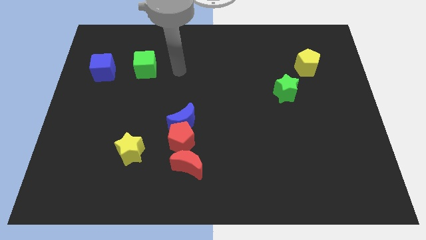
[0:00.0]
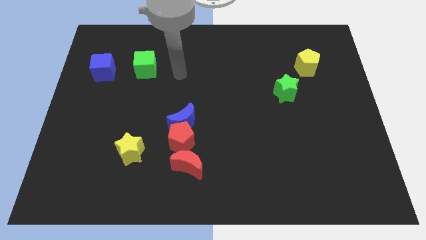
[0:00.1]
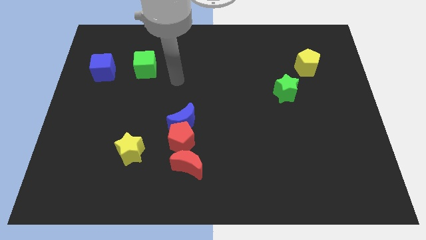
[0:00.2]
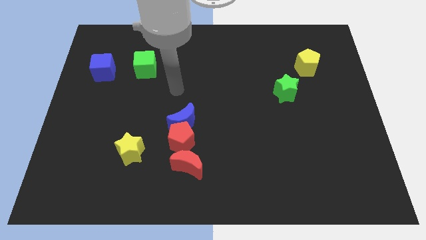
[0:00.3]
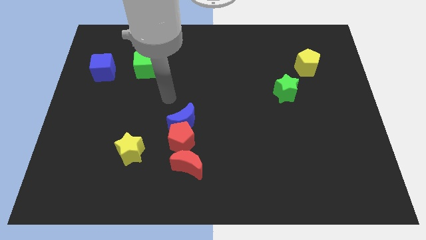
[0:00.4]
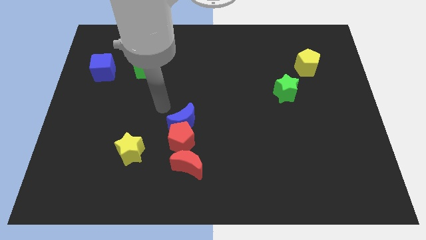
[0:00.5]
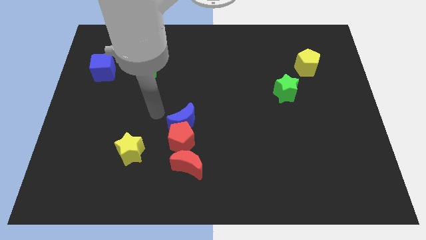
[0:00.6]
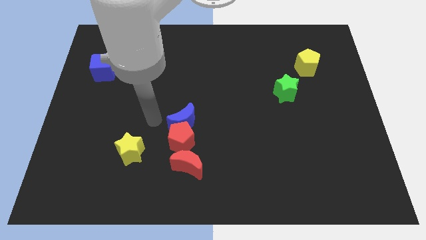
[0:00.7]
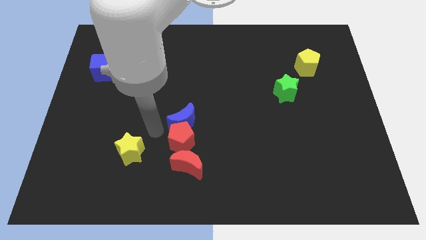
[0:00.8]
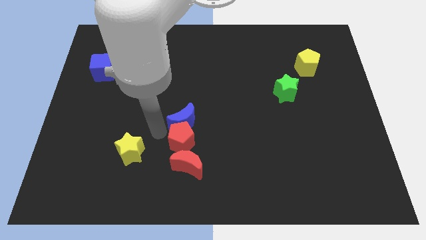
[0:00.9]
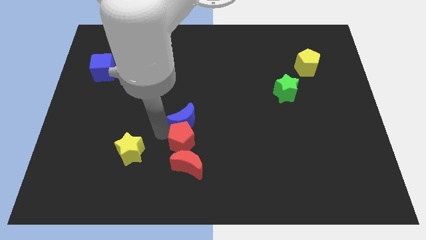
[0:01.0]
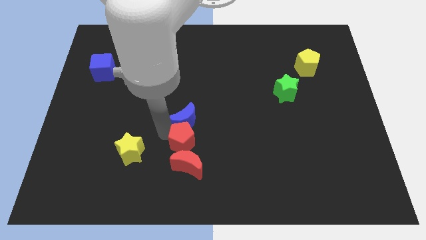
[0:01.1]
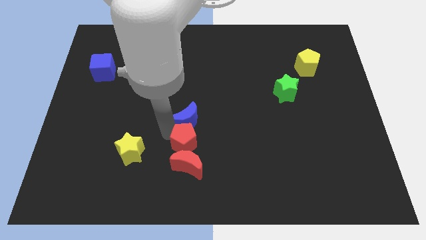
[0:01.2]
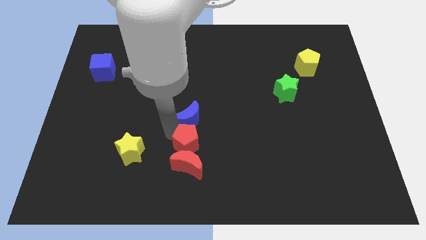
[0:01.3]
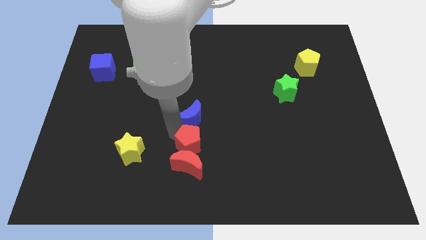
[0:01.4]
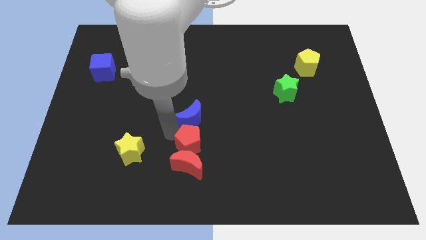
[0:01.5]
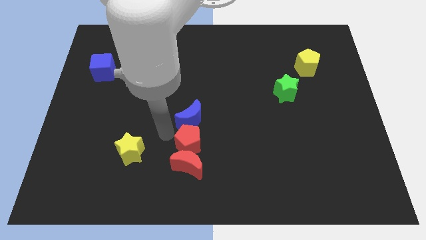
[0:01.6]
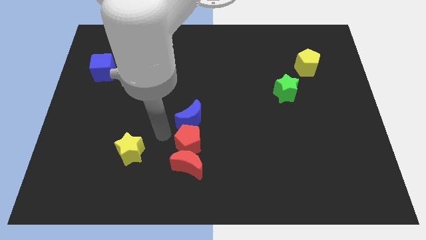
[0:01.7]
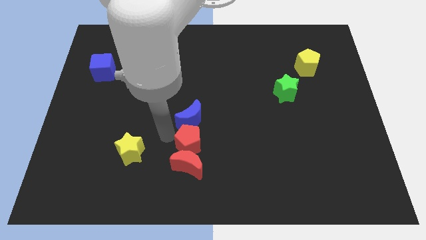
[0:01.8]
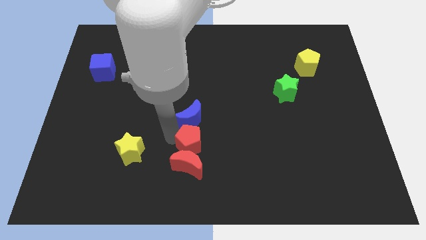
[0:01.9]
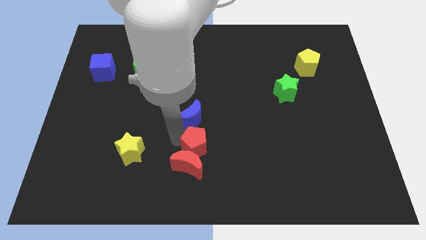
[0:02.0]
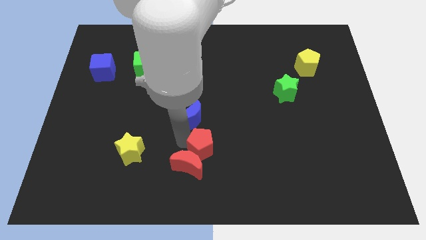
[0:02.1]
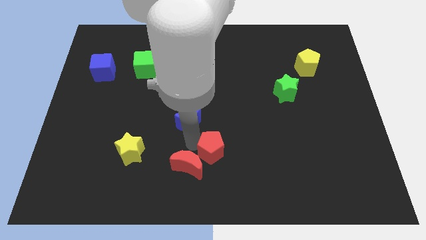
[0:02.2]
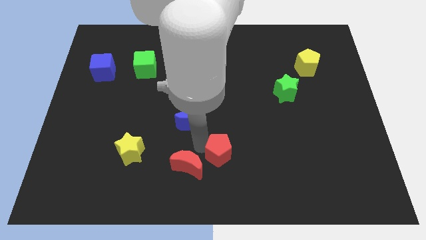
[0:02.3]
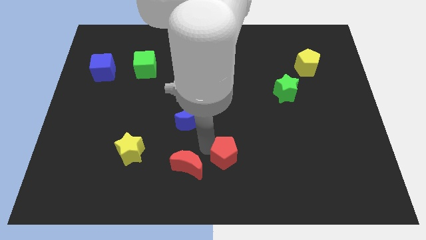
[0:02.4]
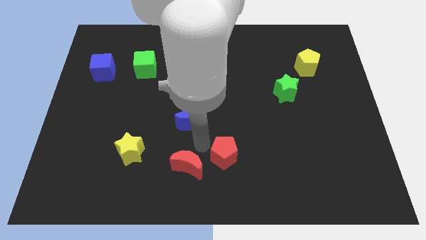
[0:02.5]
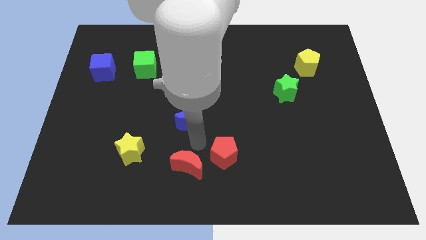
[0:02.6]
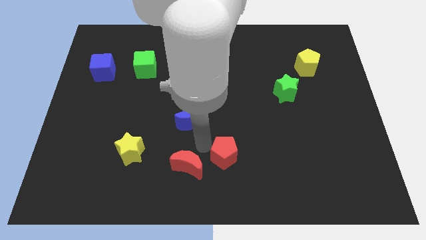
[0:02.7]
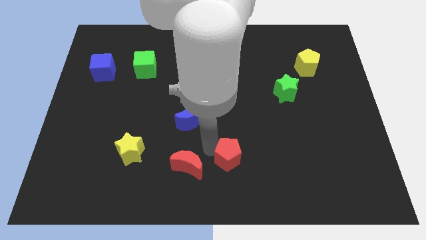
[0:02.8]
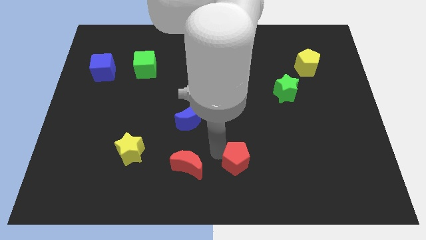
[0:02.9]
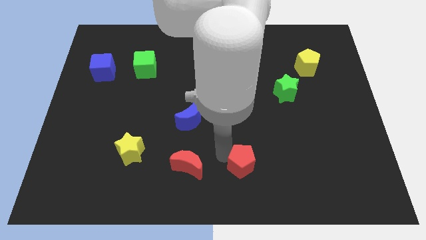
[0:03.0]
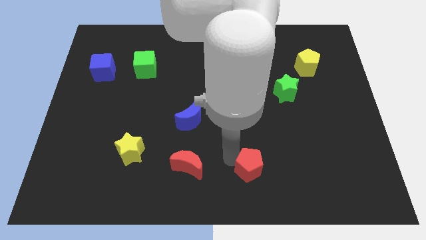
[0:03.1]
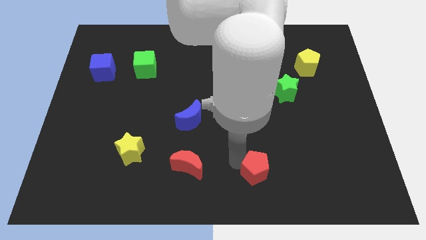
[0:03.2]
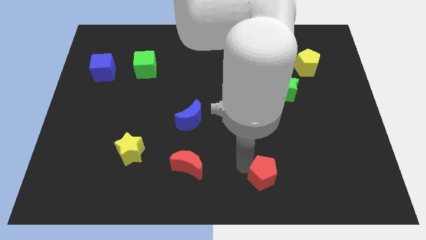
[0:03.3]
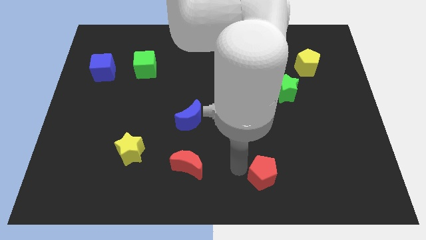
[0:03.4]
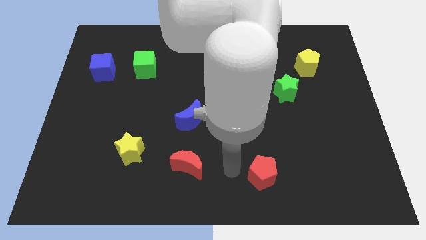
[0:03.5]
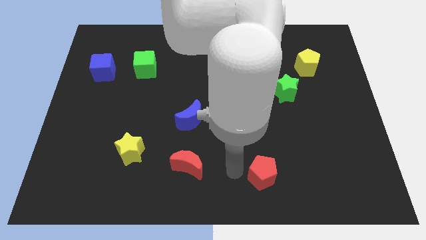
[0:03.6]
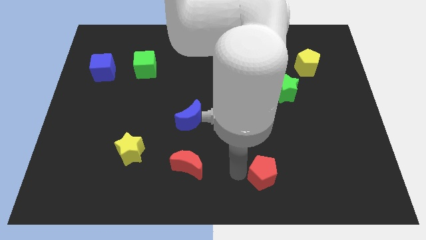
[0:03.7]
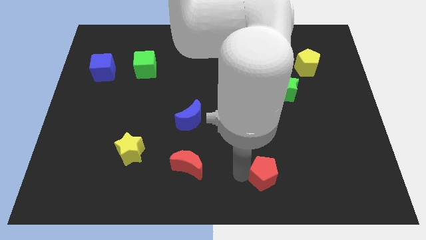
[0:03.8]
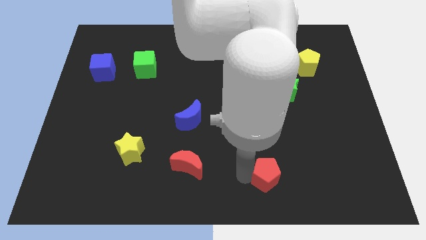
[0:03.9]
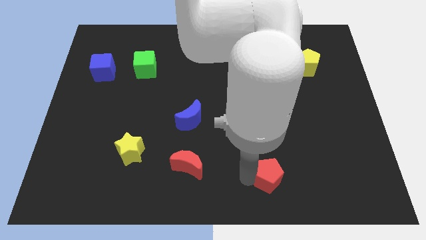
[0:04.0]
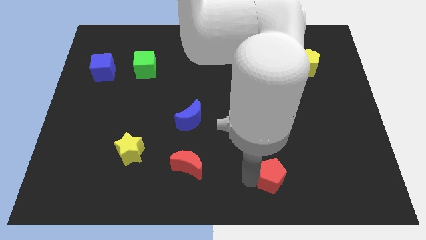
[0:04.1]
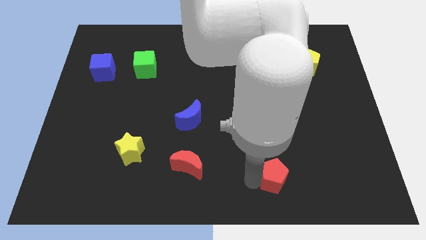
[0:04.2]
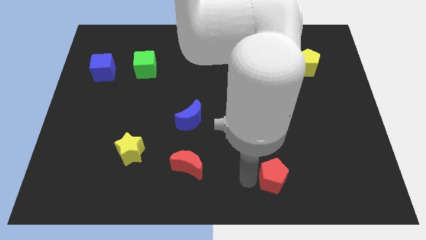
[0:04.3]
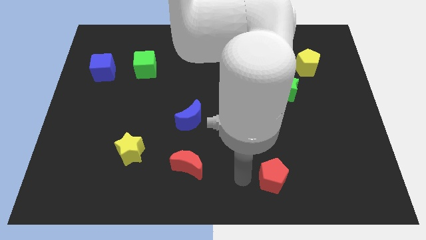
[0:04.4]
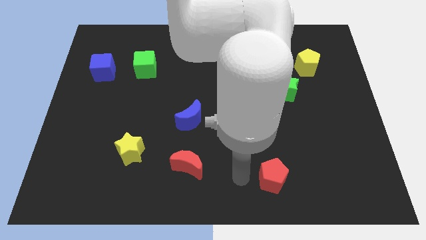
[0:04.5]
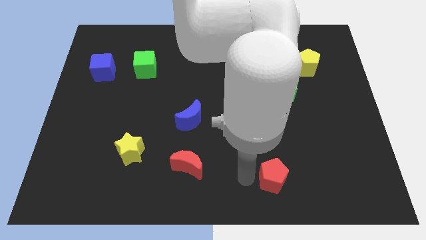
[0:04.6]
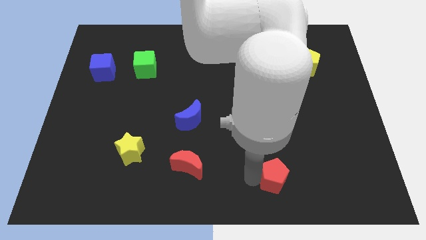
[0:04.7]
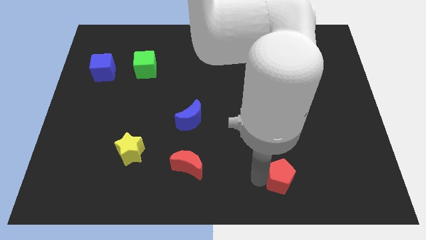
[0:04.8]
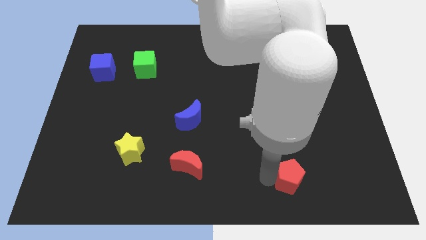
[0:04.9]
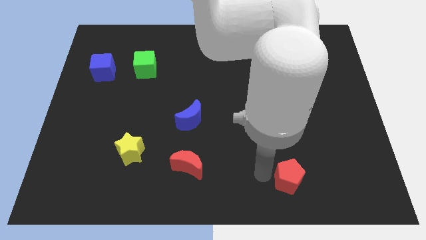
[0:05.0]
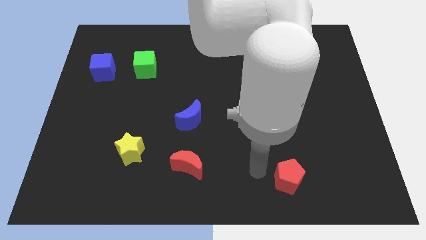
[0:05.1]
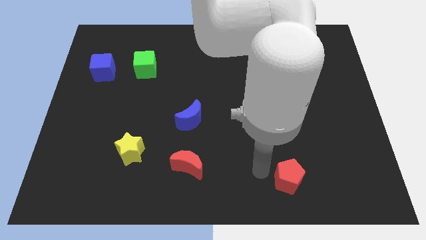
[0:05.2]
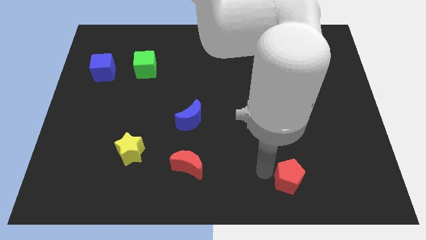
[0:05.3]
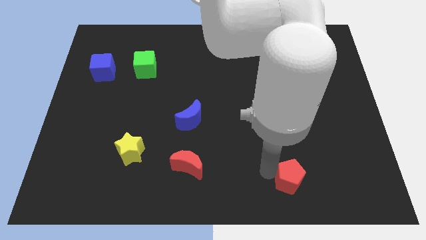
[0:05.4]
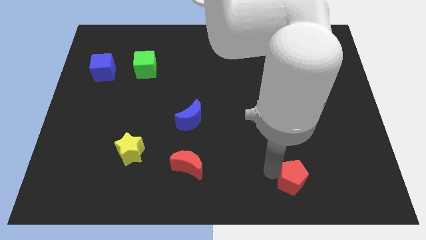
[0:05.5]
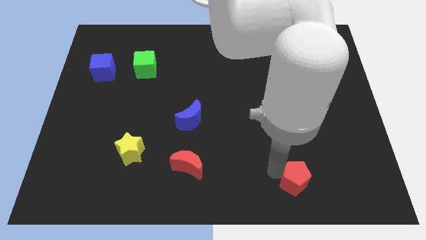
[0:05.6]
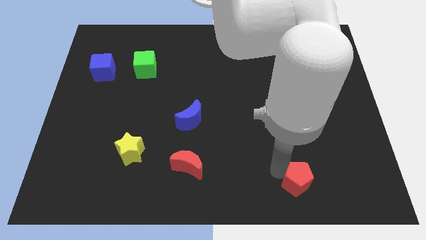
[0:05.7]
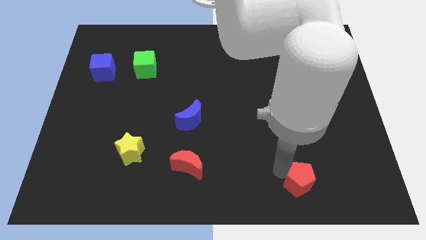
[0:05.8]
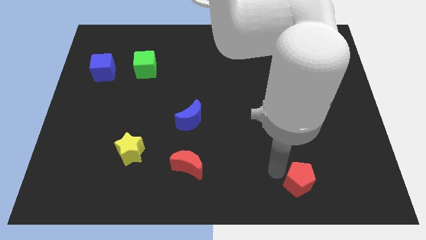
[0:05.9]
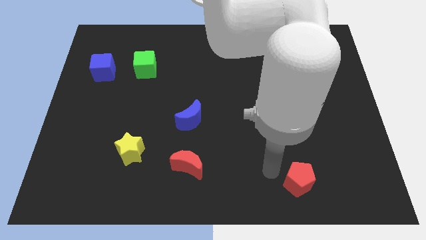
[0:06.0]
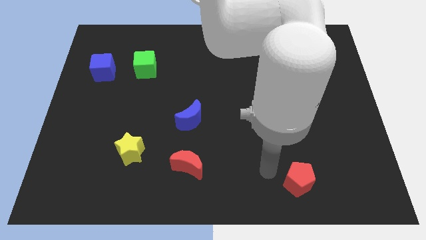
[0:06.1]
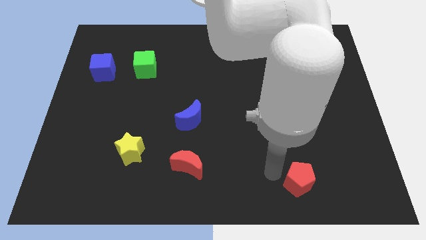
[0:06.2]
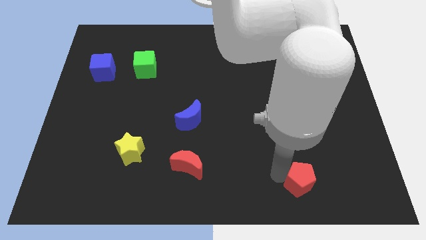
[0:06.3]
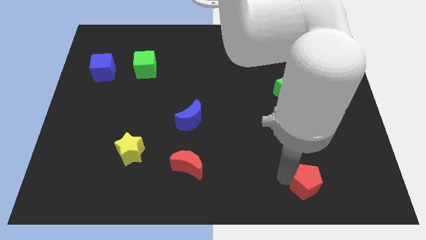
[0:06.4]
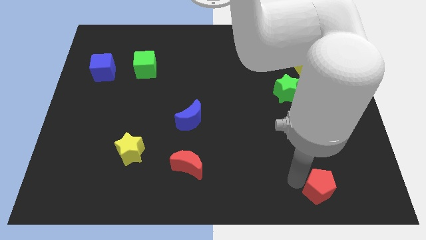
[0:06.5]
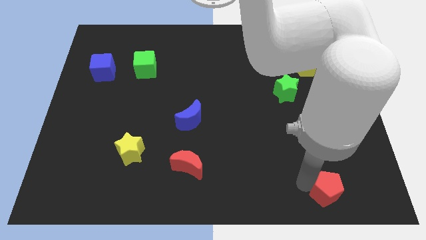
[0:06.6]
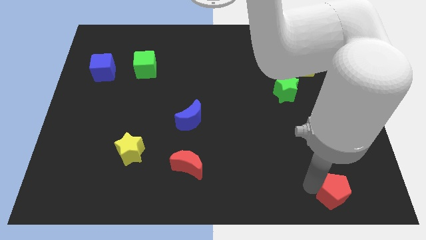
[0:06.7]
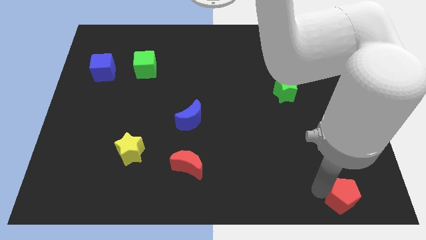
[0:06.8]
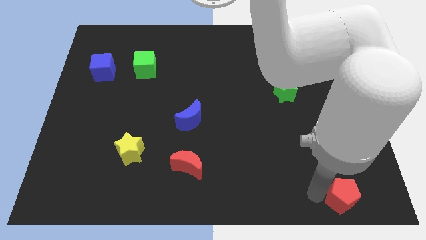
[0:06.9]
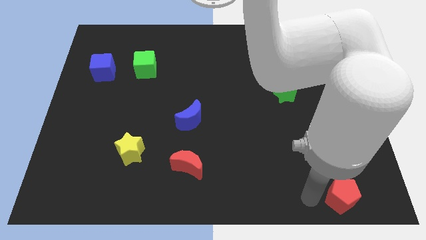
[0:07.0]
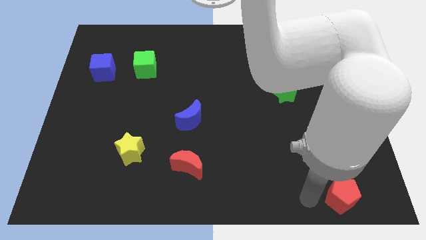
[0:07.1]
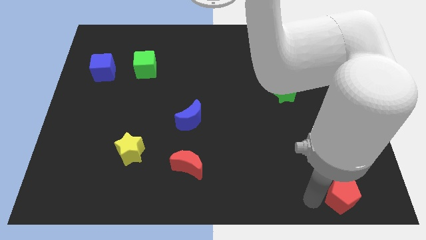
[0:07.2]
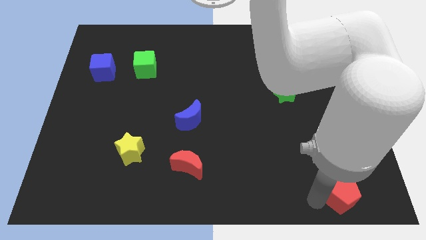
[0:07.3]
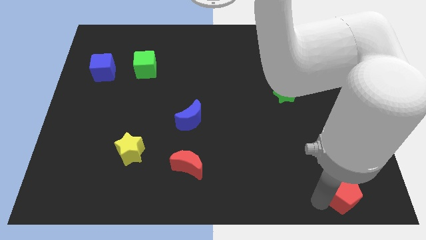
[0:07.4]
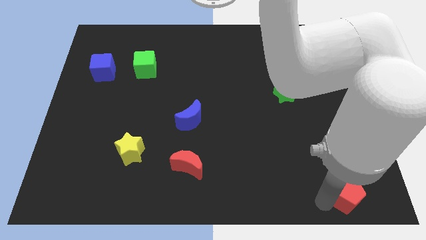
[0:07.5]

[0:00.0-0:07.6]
move the red pentagon to the lower right corner
